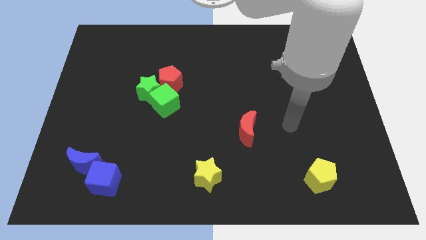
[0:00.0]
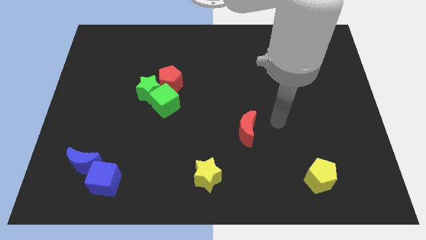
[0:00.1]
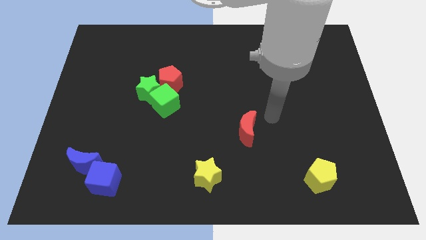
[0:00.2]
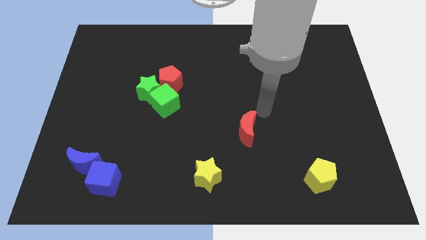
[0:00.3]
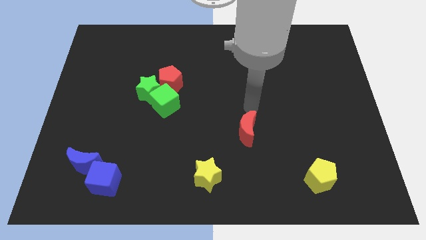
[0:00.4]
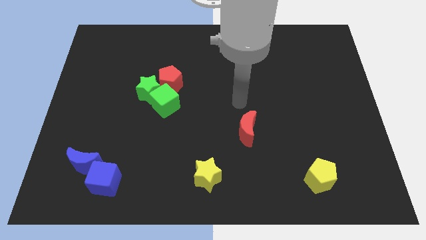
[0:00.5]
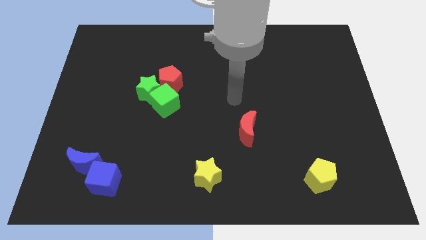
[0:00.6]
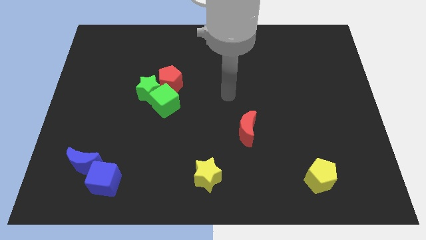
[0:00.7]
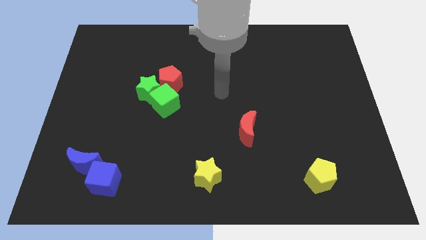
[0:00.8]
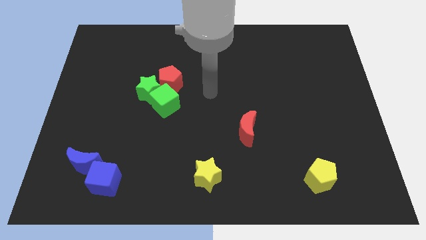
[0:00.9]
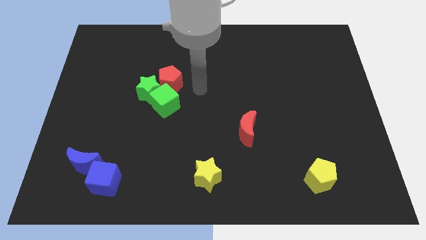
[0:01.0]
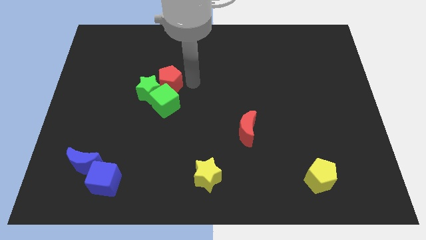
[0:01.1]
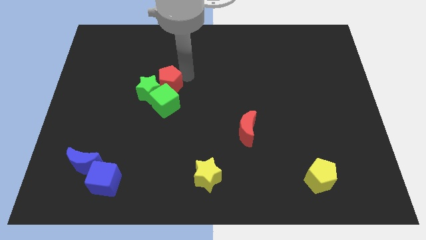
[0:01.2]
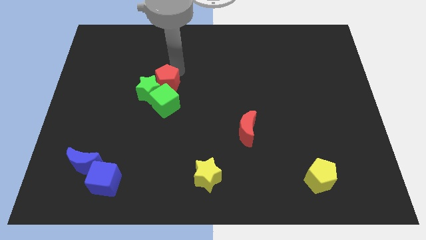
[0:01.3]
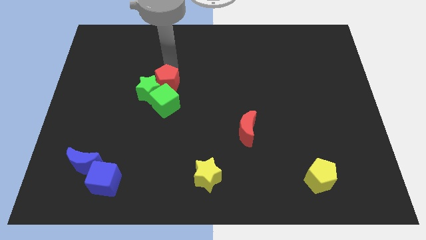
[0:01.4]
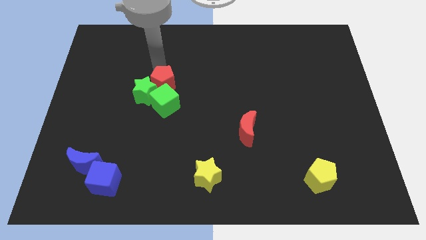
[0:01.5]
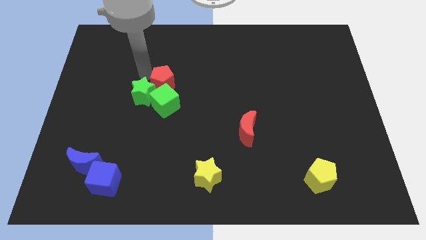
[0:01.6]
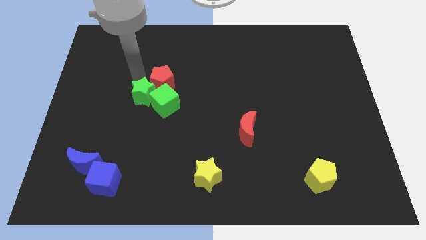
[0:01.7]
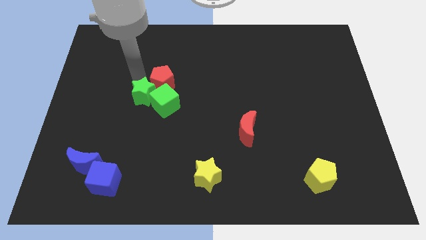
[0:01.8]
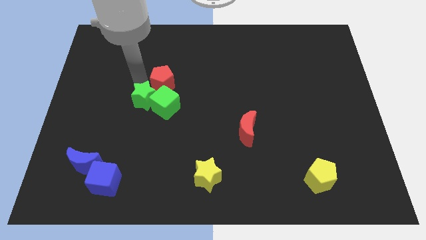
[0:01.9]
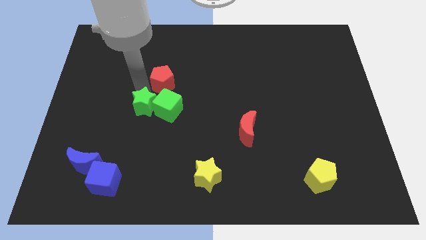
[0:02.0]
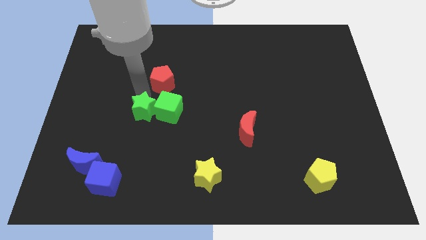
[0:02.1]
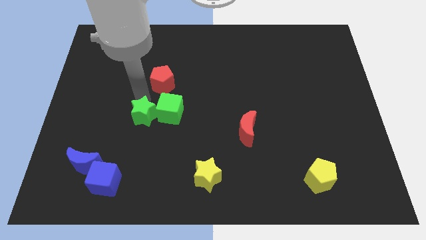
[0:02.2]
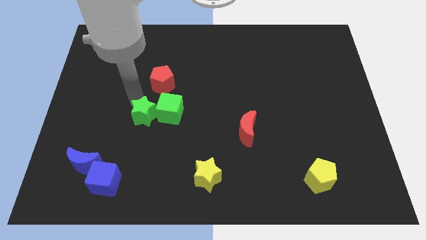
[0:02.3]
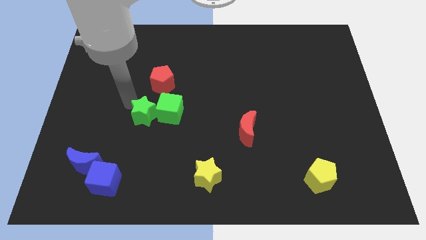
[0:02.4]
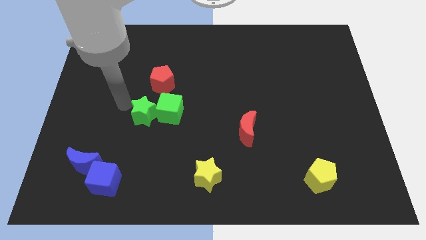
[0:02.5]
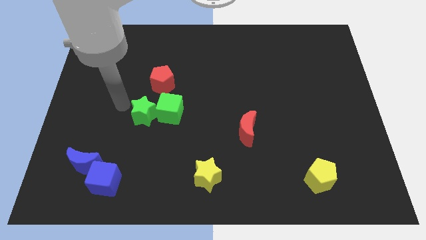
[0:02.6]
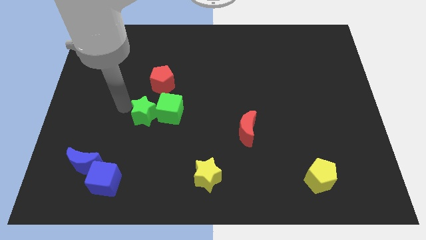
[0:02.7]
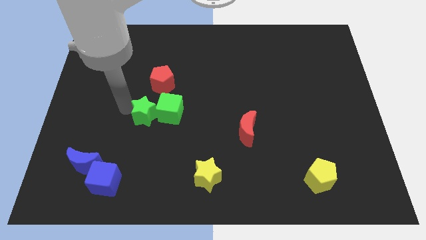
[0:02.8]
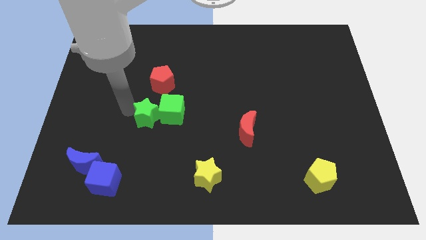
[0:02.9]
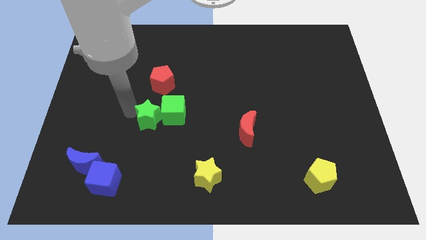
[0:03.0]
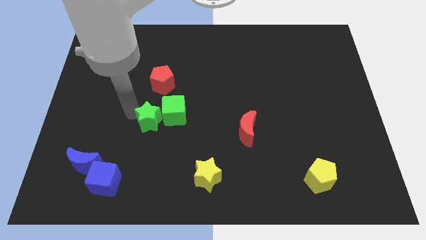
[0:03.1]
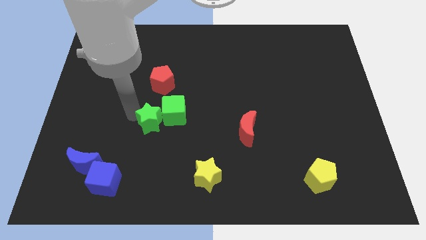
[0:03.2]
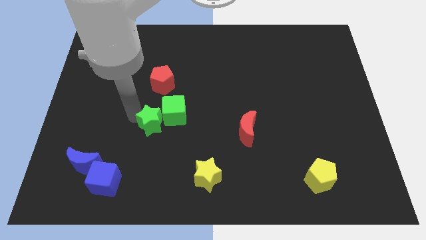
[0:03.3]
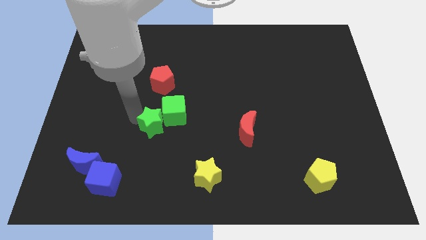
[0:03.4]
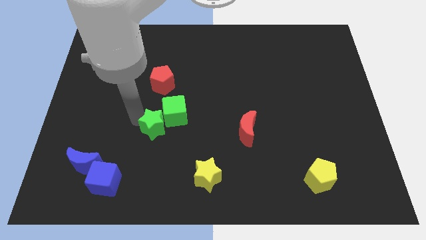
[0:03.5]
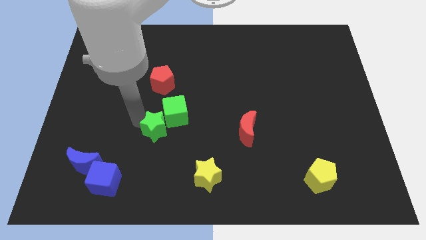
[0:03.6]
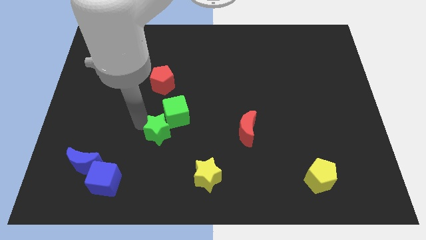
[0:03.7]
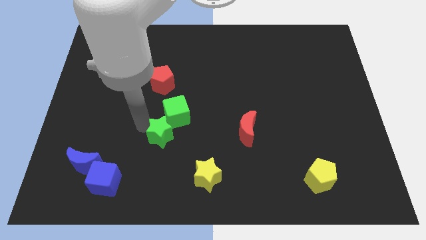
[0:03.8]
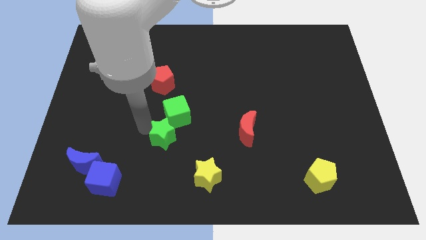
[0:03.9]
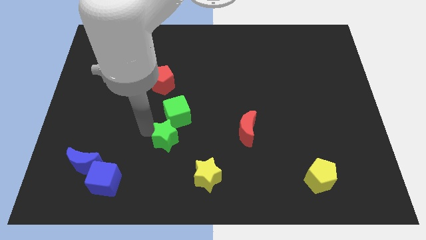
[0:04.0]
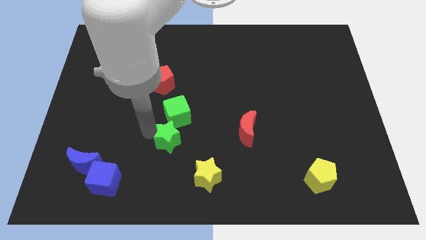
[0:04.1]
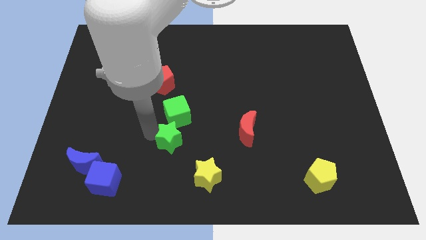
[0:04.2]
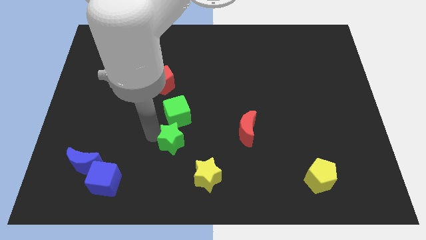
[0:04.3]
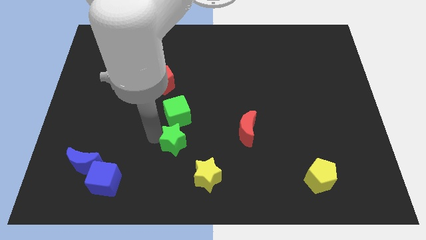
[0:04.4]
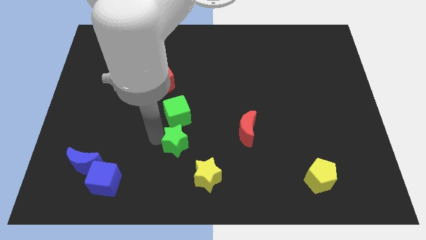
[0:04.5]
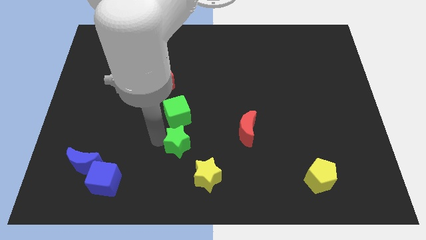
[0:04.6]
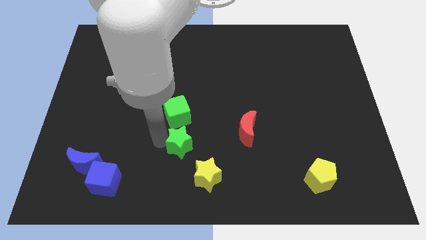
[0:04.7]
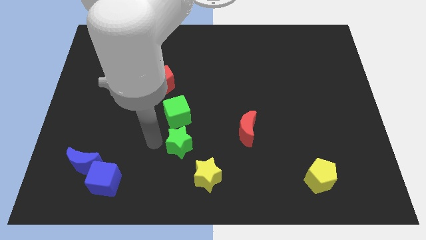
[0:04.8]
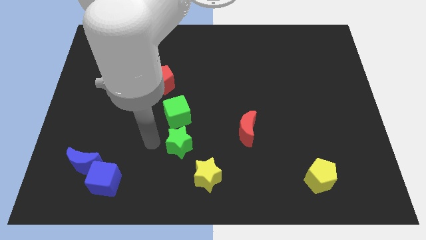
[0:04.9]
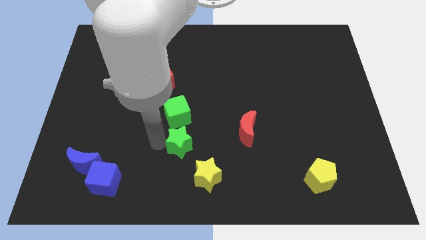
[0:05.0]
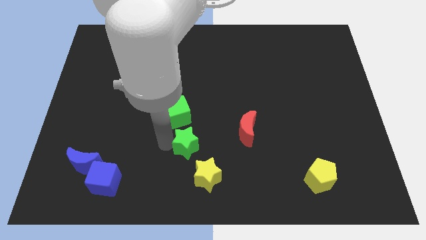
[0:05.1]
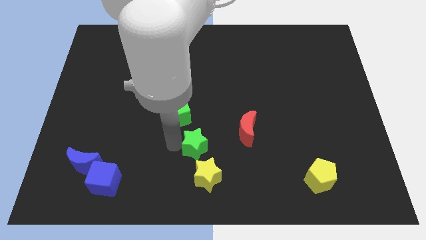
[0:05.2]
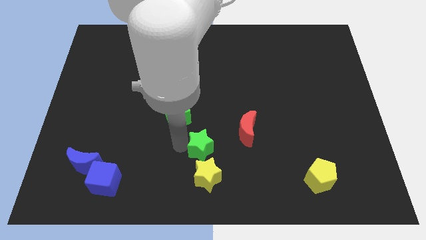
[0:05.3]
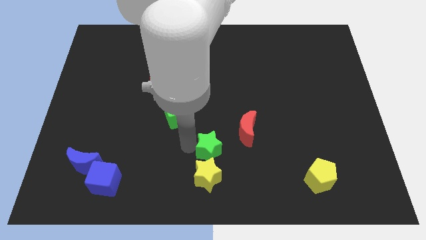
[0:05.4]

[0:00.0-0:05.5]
put the green star to the top right side of the yellow star

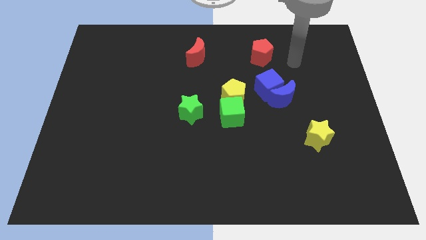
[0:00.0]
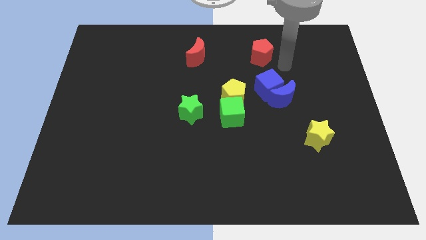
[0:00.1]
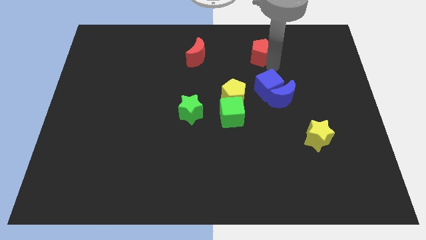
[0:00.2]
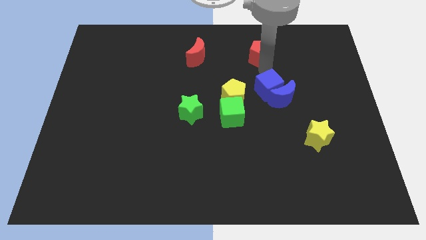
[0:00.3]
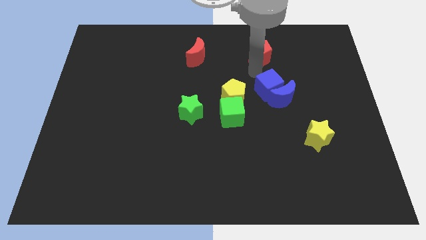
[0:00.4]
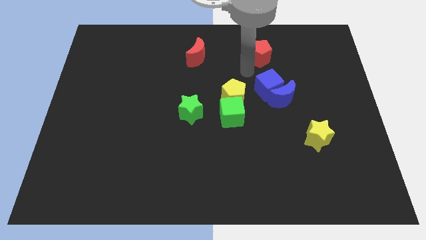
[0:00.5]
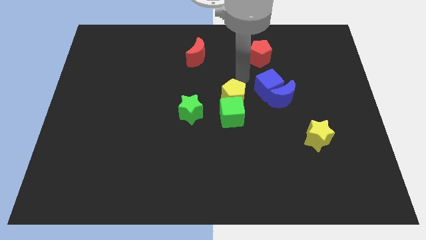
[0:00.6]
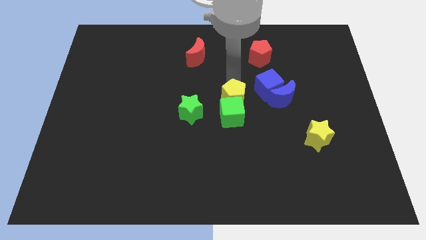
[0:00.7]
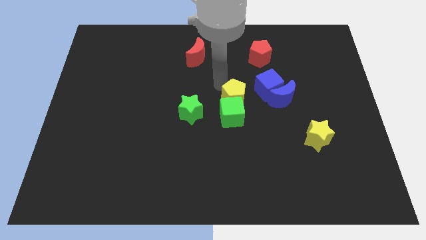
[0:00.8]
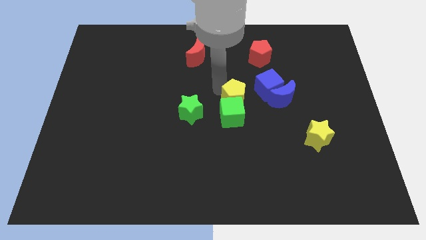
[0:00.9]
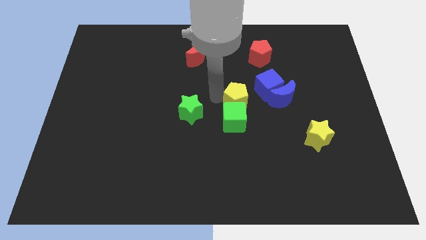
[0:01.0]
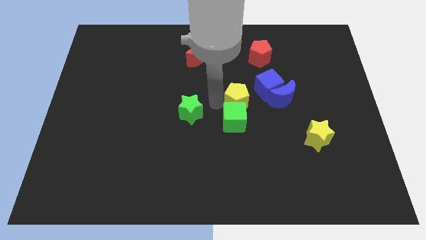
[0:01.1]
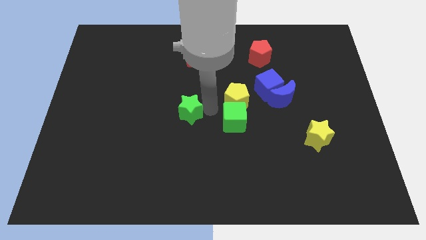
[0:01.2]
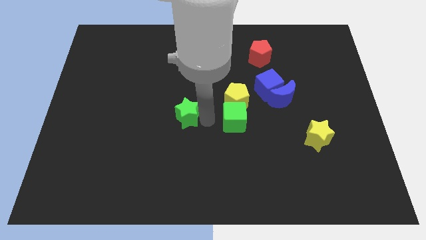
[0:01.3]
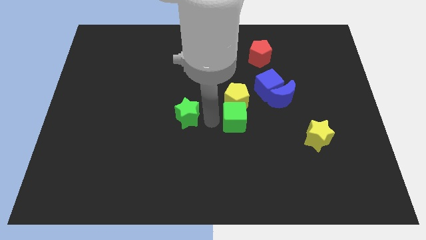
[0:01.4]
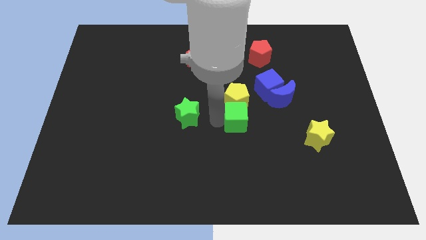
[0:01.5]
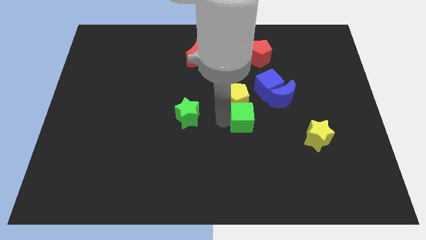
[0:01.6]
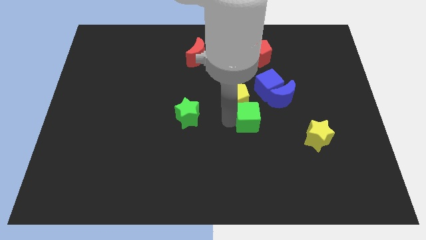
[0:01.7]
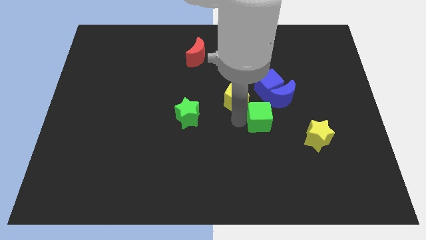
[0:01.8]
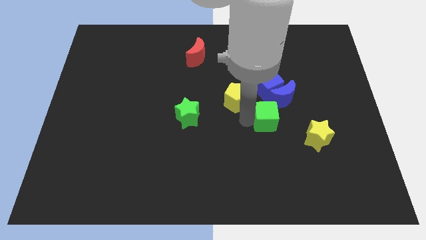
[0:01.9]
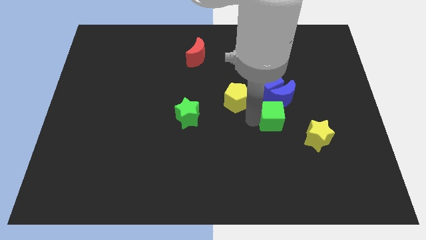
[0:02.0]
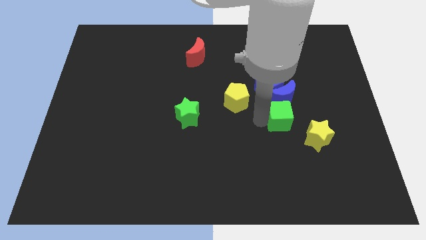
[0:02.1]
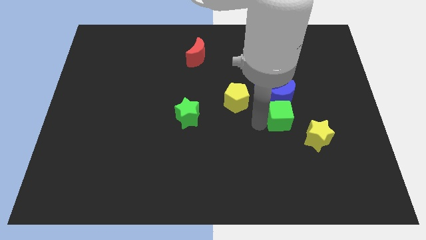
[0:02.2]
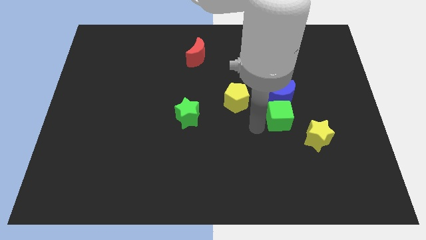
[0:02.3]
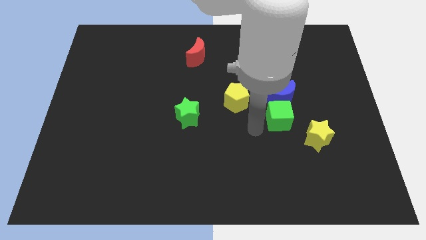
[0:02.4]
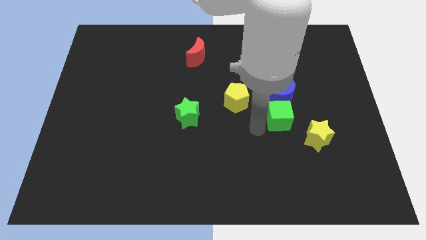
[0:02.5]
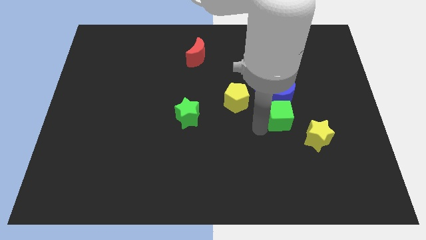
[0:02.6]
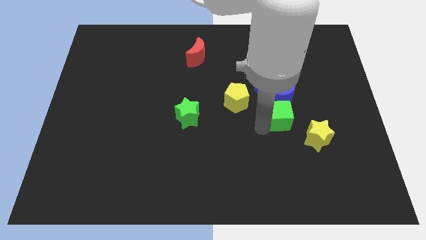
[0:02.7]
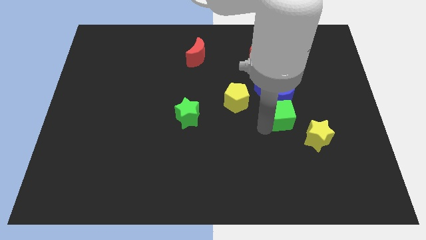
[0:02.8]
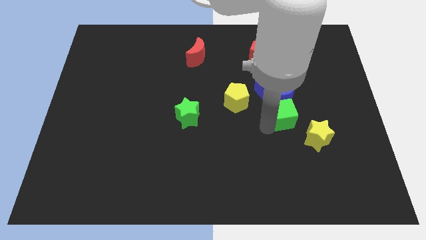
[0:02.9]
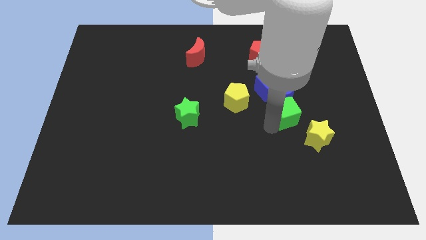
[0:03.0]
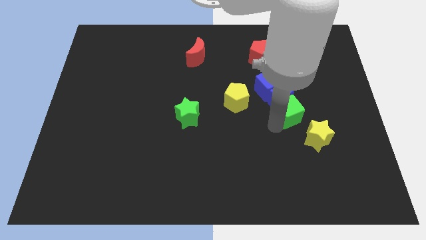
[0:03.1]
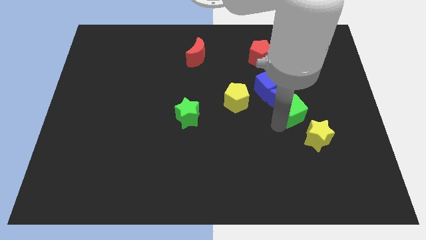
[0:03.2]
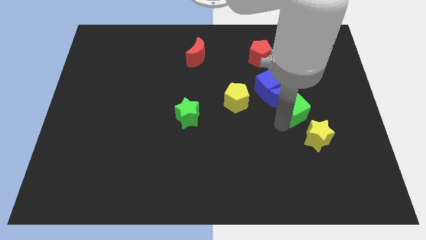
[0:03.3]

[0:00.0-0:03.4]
move the green cube to the top of the yellow star
